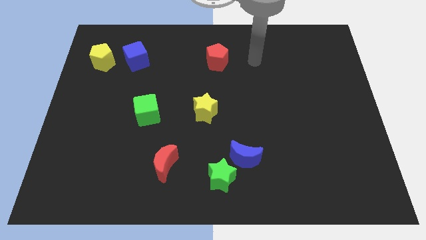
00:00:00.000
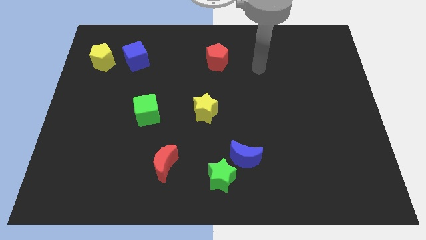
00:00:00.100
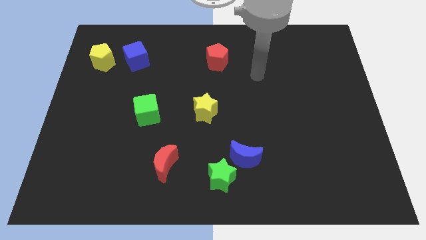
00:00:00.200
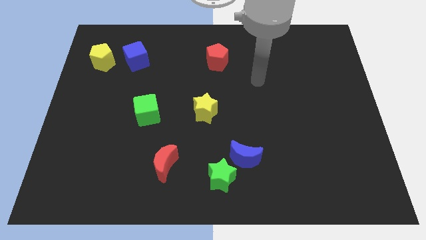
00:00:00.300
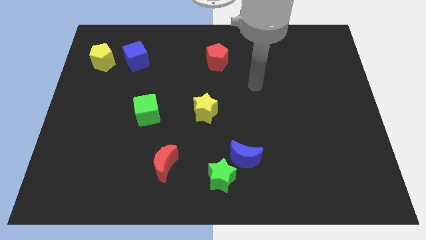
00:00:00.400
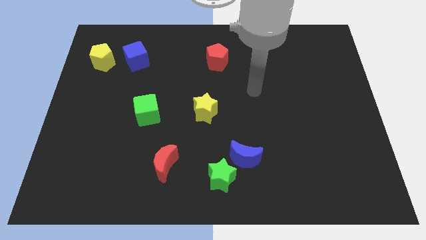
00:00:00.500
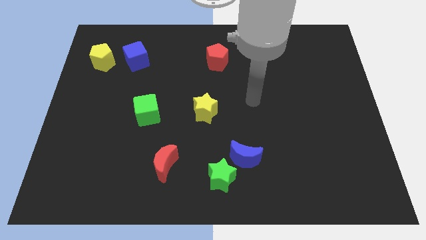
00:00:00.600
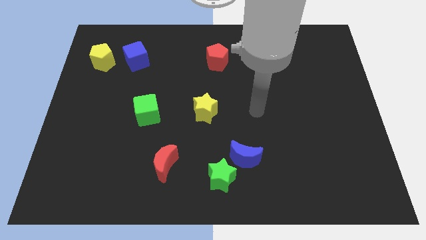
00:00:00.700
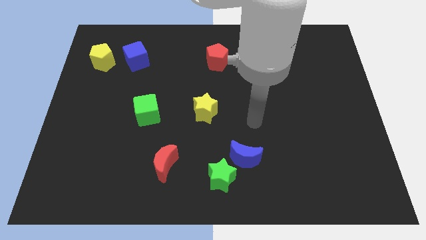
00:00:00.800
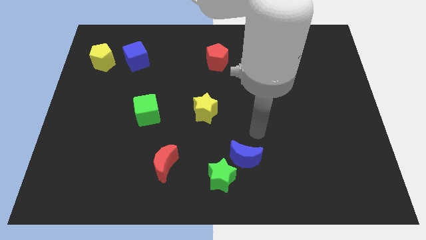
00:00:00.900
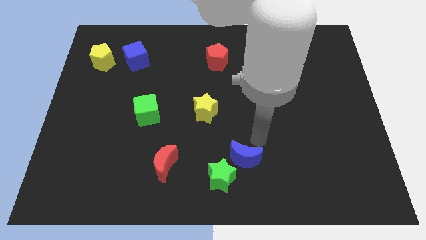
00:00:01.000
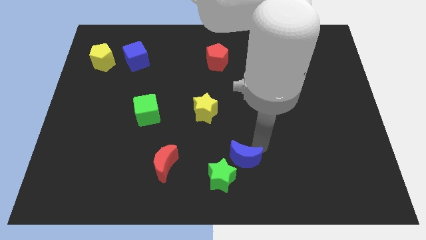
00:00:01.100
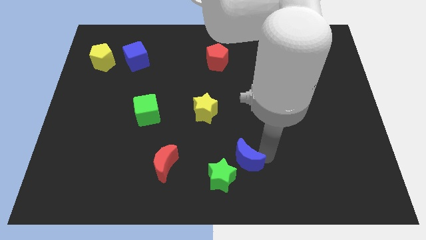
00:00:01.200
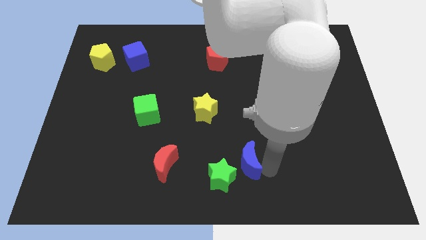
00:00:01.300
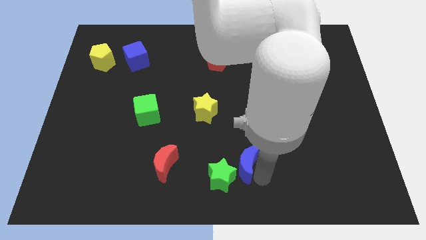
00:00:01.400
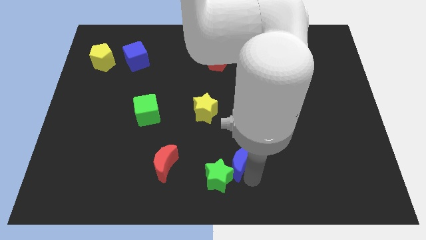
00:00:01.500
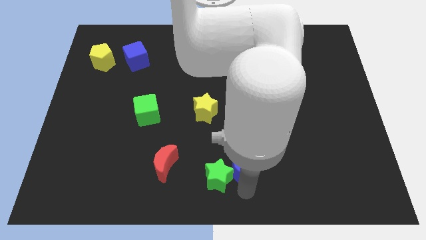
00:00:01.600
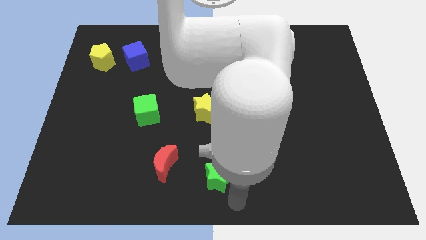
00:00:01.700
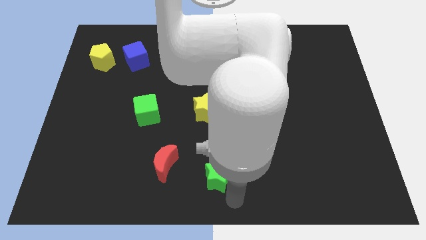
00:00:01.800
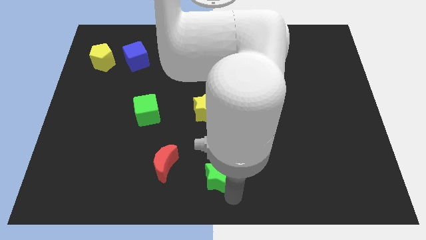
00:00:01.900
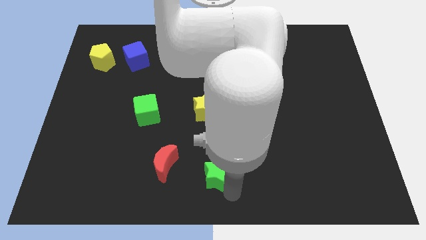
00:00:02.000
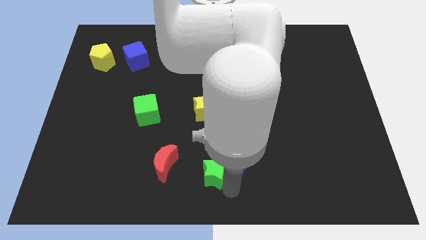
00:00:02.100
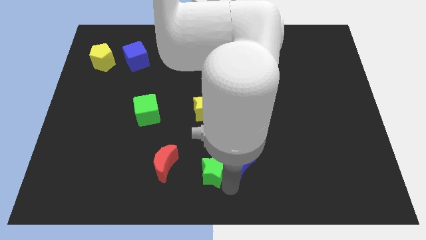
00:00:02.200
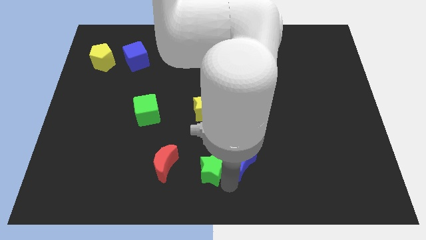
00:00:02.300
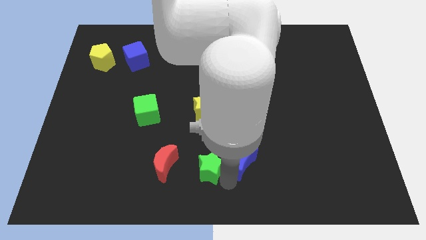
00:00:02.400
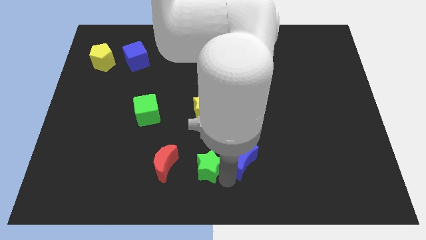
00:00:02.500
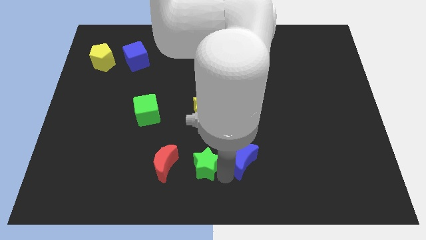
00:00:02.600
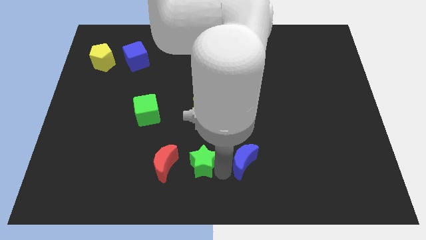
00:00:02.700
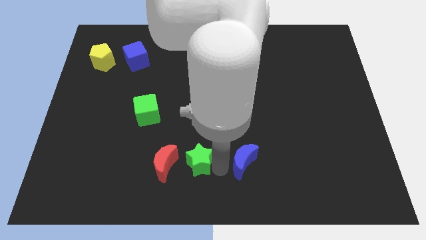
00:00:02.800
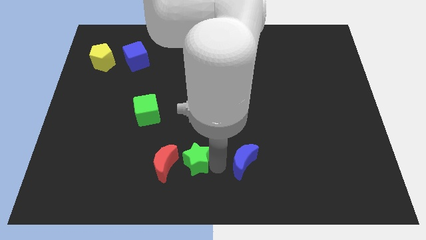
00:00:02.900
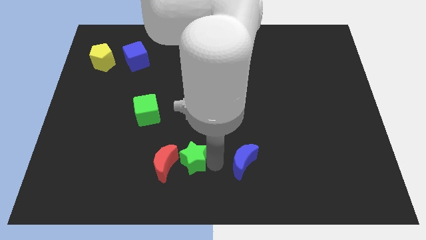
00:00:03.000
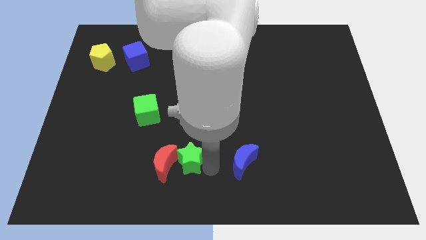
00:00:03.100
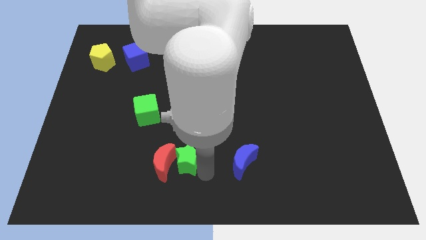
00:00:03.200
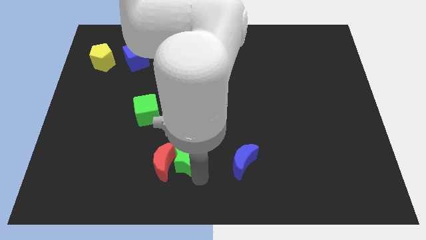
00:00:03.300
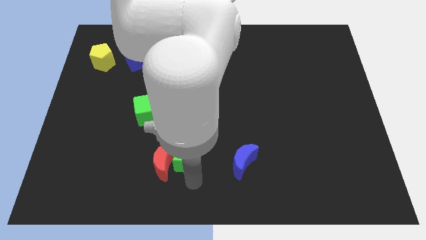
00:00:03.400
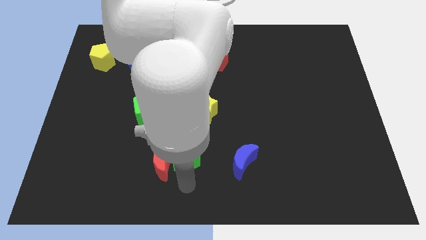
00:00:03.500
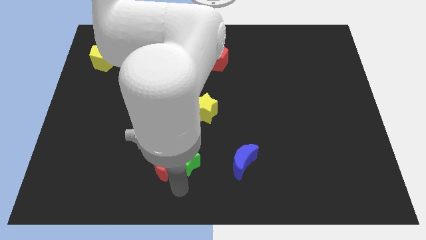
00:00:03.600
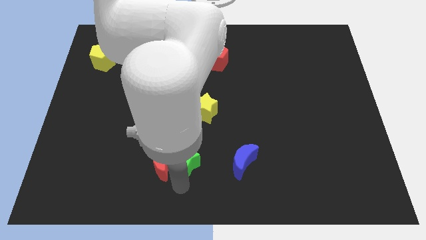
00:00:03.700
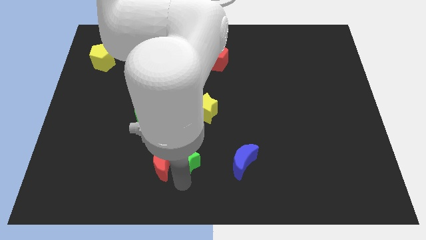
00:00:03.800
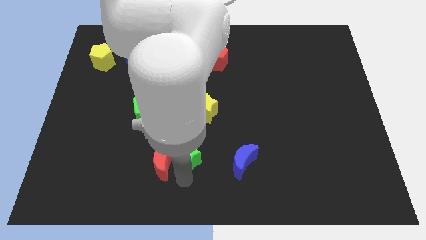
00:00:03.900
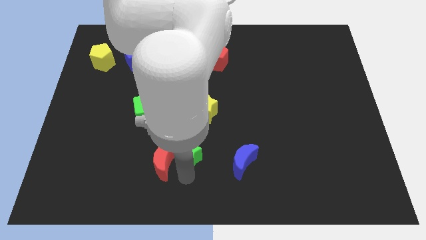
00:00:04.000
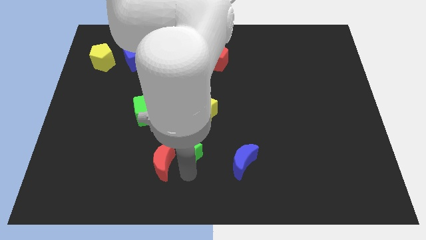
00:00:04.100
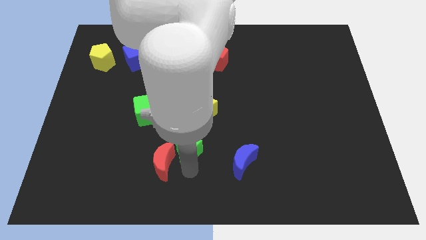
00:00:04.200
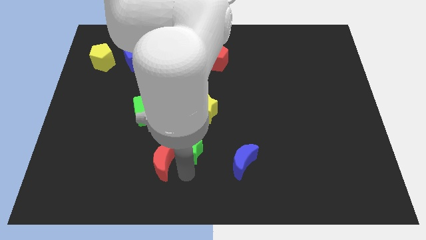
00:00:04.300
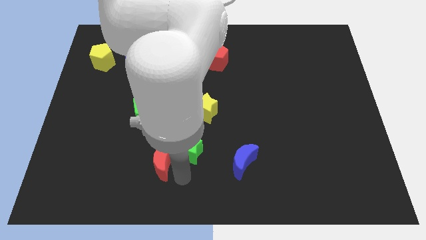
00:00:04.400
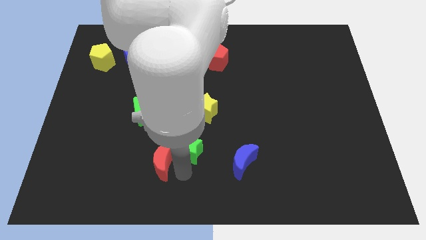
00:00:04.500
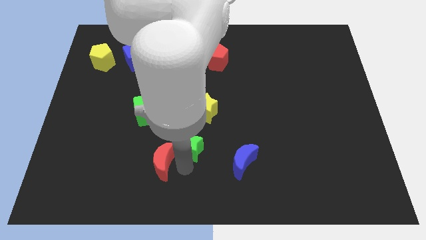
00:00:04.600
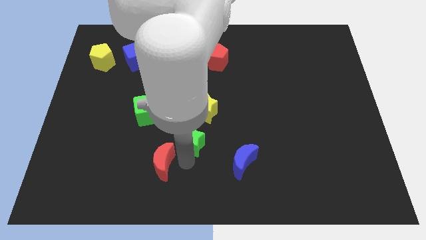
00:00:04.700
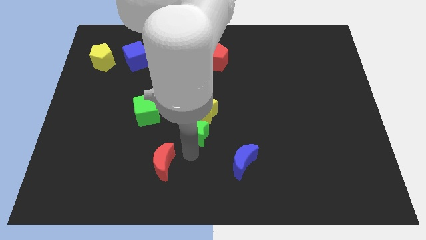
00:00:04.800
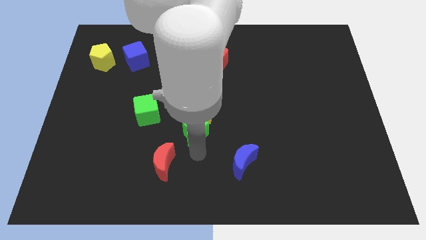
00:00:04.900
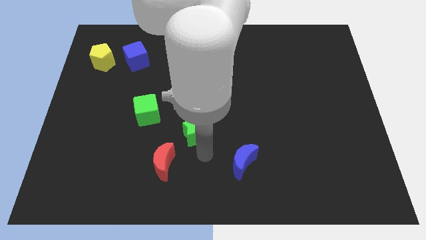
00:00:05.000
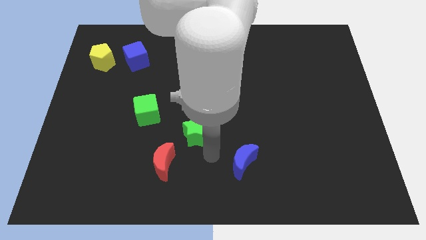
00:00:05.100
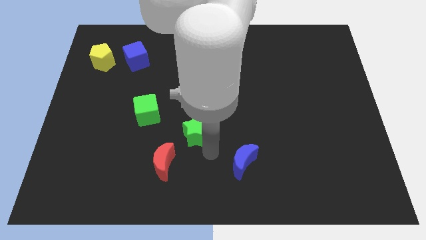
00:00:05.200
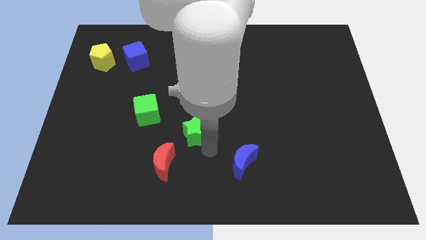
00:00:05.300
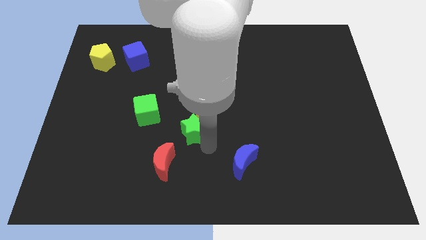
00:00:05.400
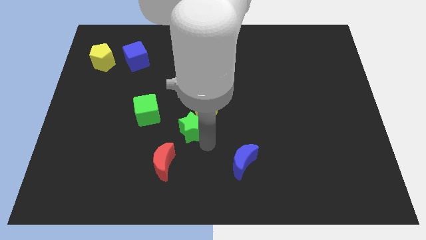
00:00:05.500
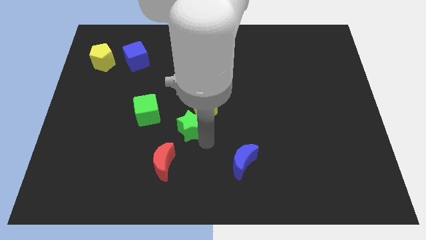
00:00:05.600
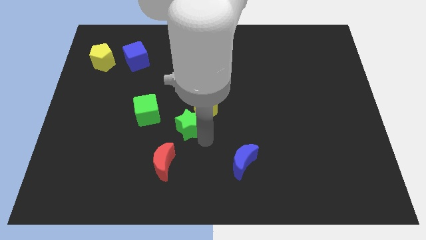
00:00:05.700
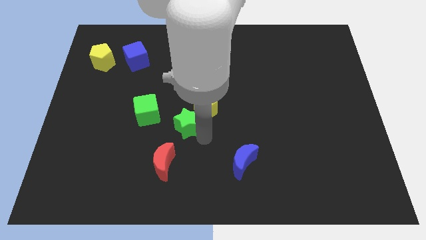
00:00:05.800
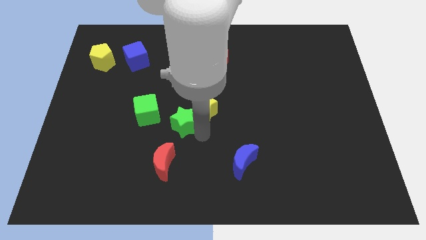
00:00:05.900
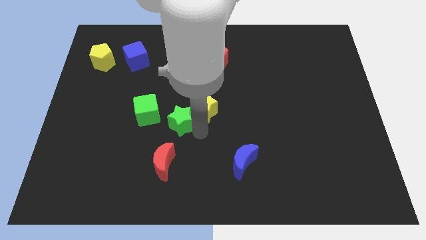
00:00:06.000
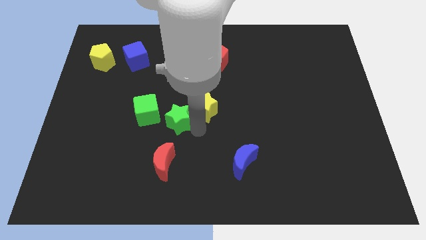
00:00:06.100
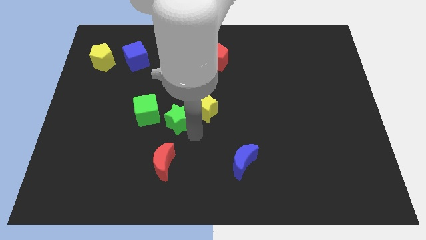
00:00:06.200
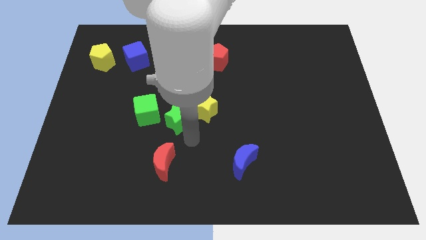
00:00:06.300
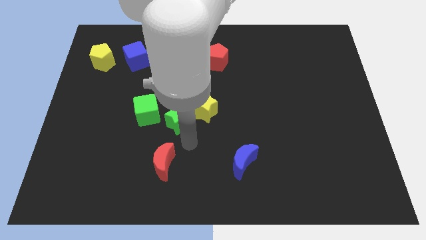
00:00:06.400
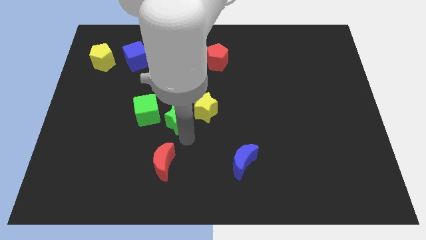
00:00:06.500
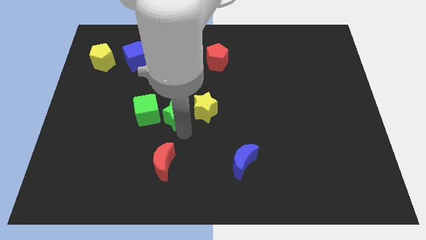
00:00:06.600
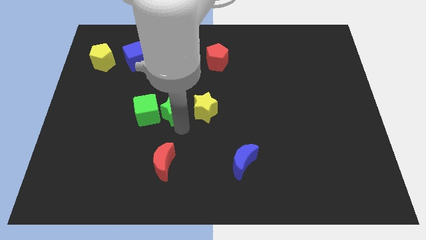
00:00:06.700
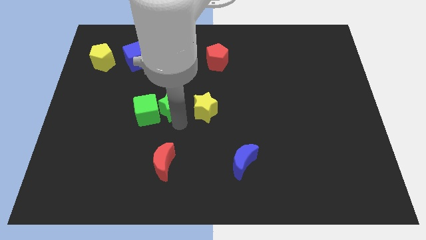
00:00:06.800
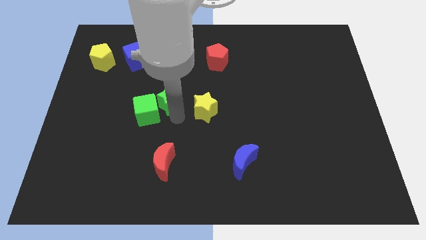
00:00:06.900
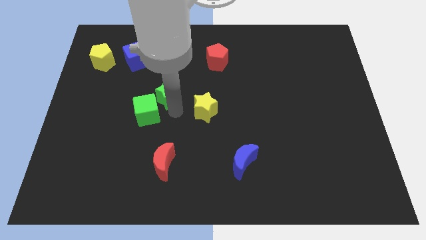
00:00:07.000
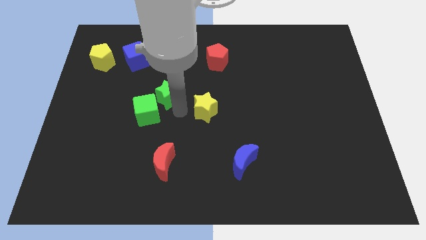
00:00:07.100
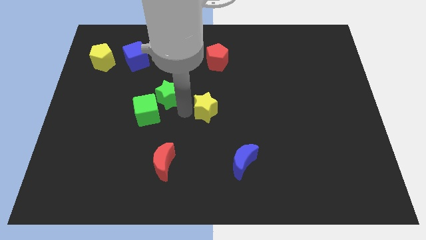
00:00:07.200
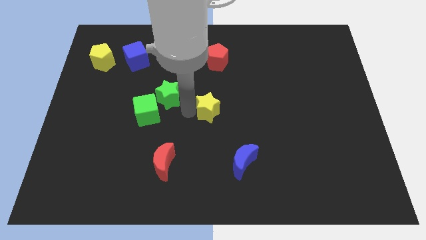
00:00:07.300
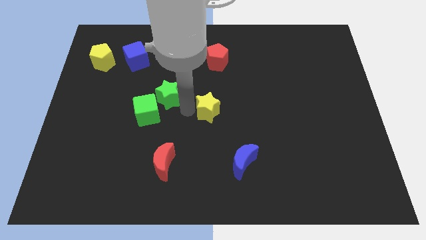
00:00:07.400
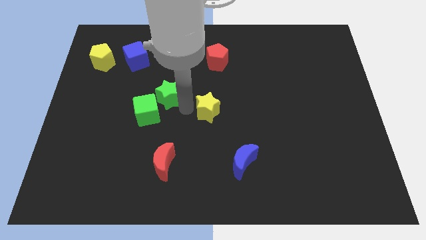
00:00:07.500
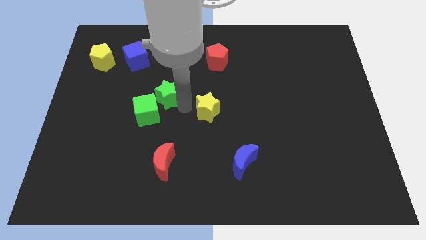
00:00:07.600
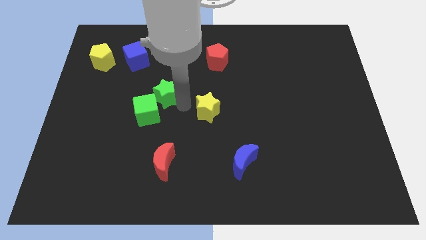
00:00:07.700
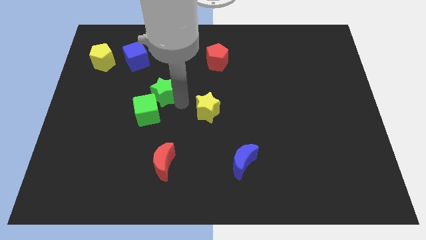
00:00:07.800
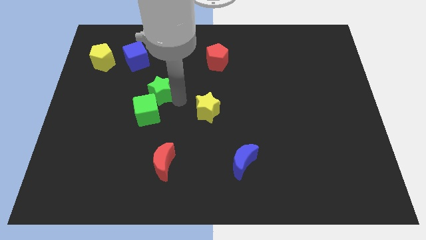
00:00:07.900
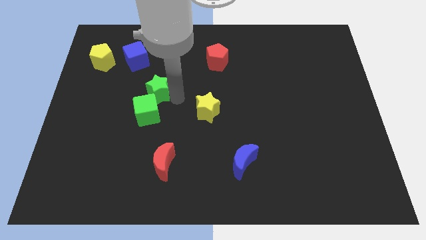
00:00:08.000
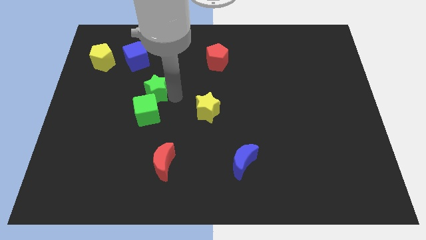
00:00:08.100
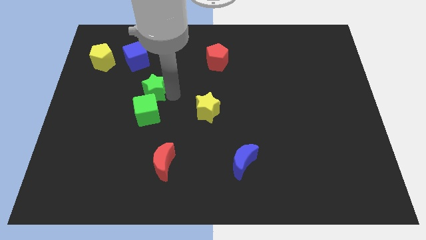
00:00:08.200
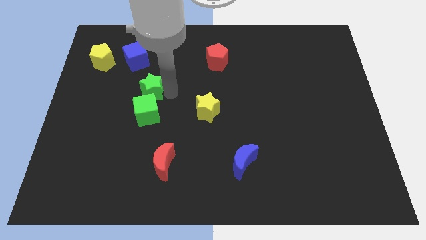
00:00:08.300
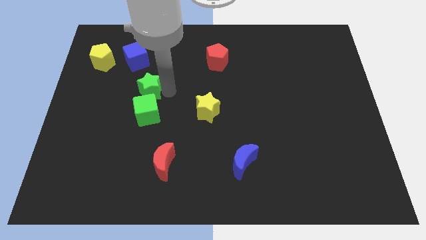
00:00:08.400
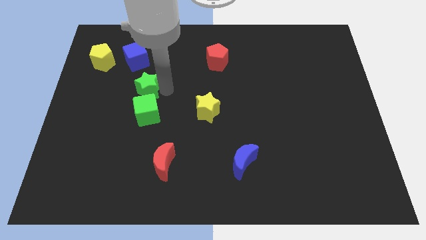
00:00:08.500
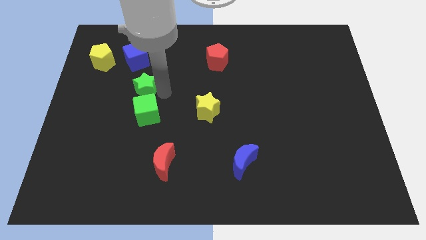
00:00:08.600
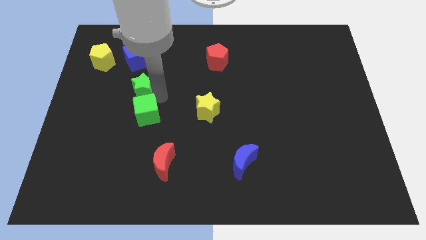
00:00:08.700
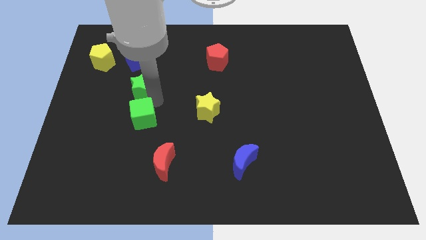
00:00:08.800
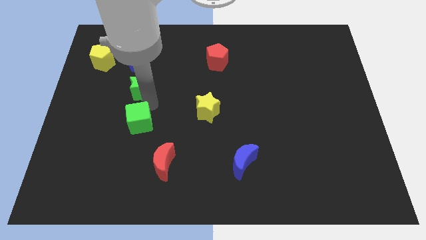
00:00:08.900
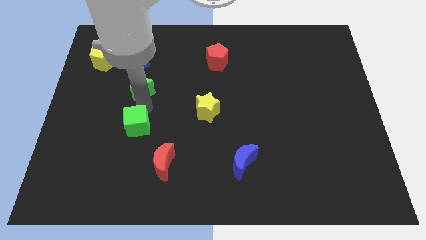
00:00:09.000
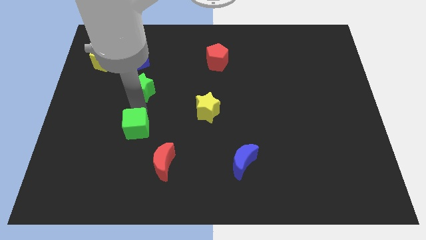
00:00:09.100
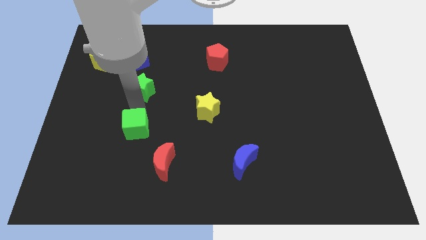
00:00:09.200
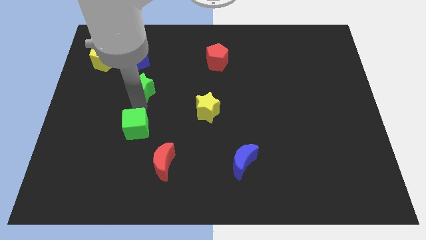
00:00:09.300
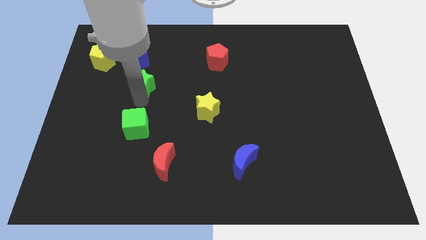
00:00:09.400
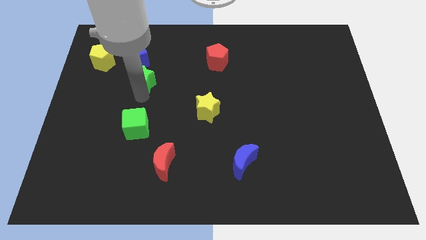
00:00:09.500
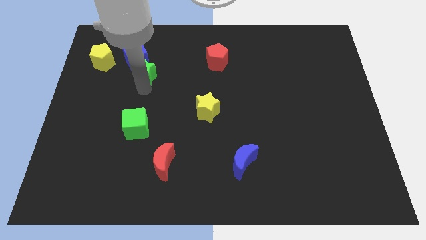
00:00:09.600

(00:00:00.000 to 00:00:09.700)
push the green star next to the blue cube
